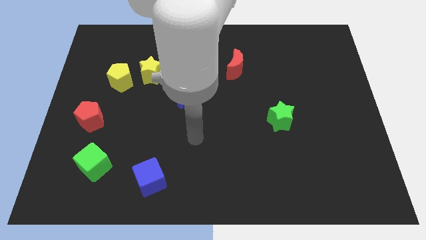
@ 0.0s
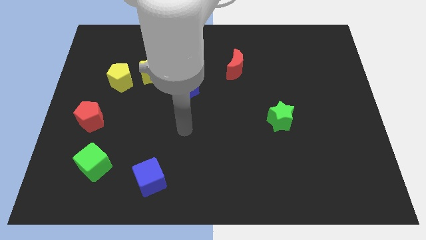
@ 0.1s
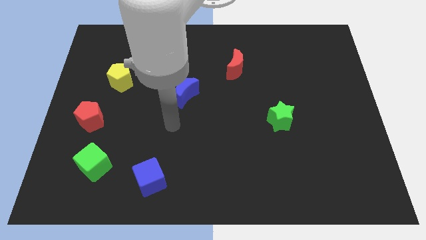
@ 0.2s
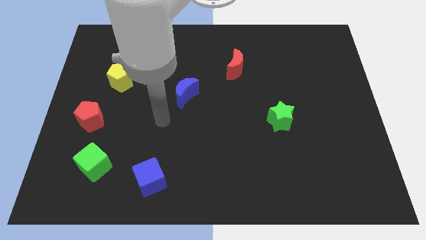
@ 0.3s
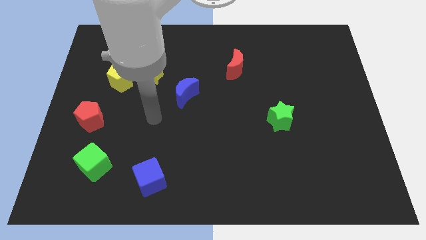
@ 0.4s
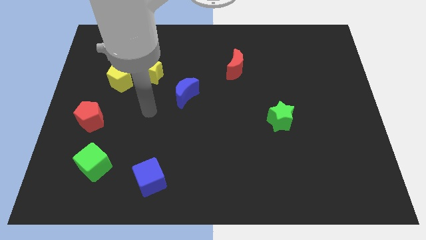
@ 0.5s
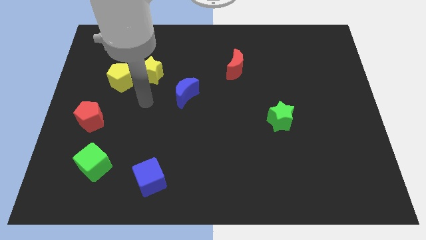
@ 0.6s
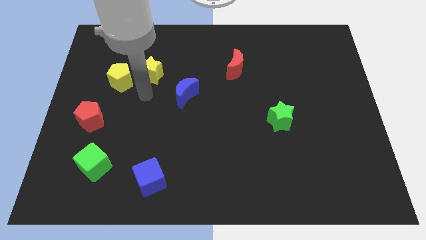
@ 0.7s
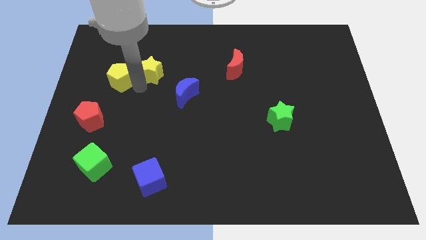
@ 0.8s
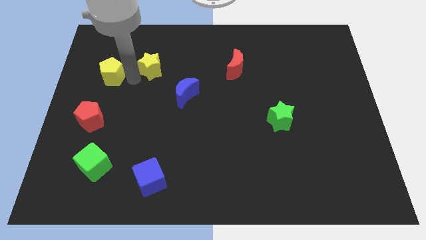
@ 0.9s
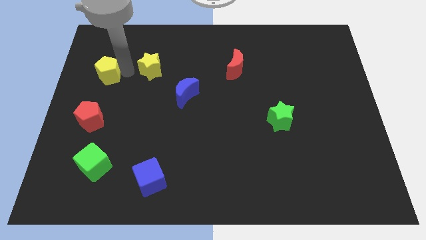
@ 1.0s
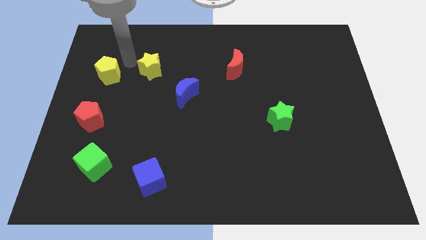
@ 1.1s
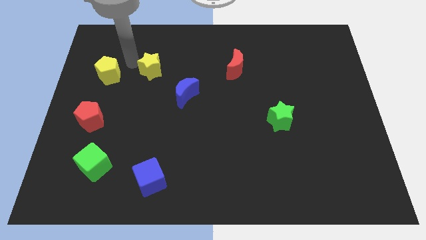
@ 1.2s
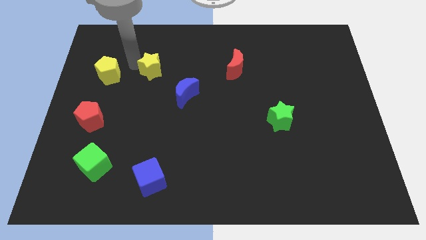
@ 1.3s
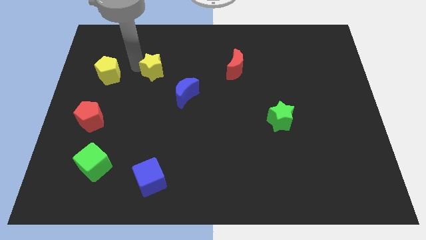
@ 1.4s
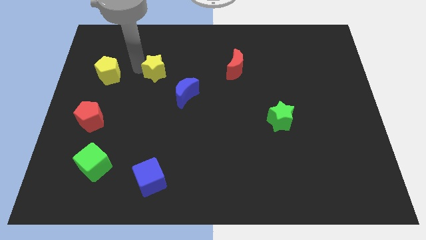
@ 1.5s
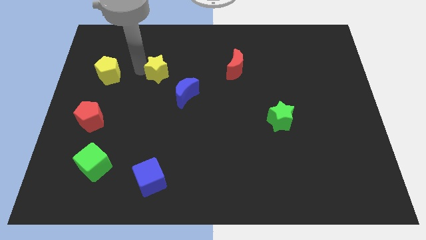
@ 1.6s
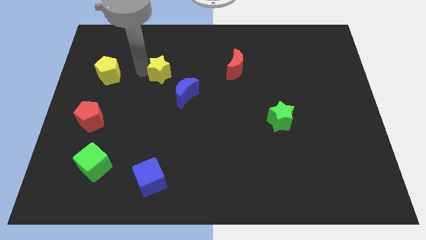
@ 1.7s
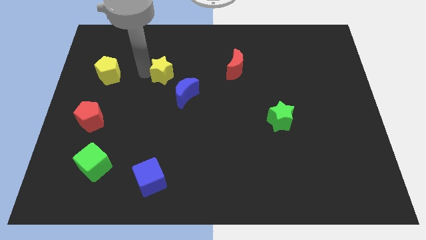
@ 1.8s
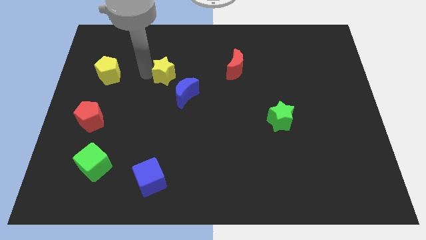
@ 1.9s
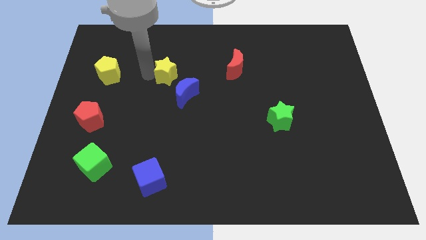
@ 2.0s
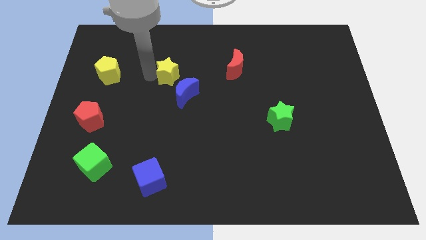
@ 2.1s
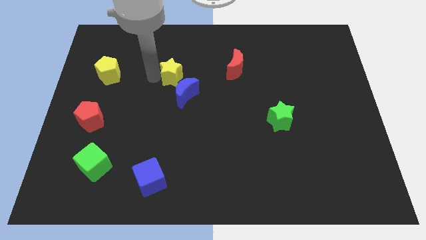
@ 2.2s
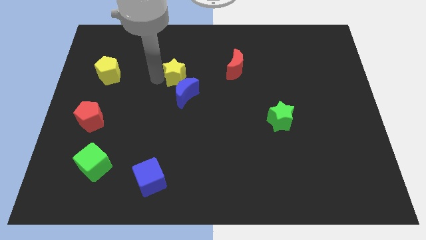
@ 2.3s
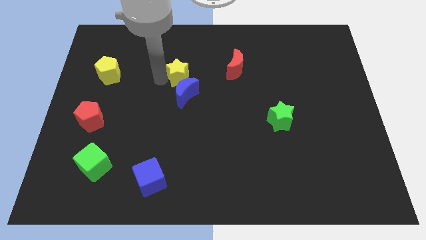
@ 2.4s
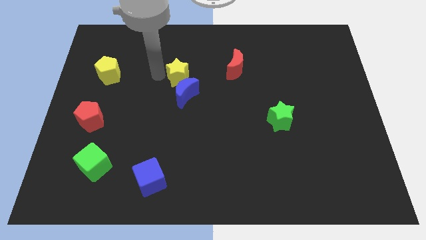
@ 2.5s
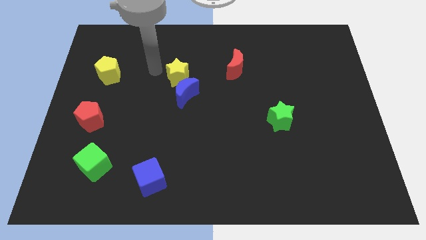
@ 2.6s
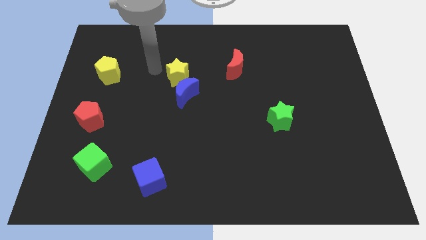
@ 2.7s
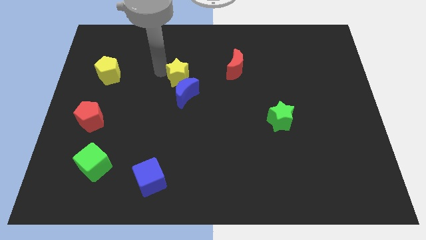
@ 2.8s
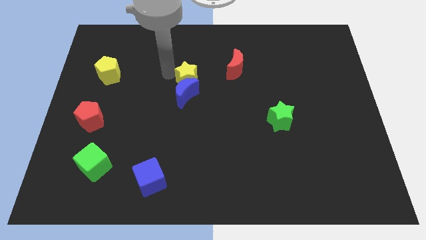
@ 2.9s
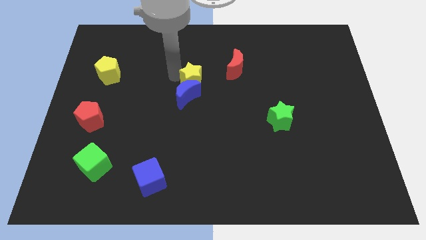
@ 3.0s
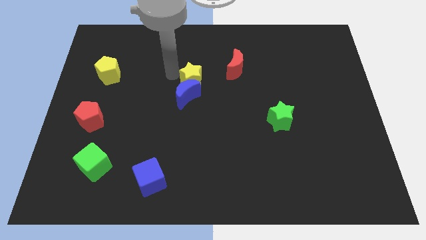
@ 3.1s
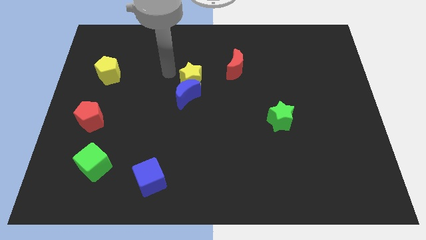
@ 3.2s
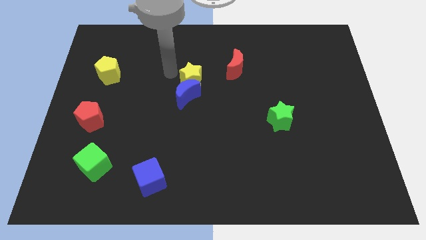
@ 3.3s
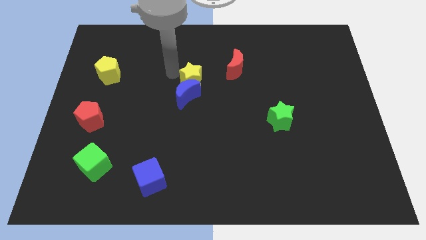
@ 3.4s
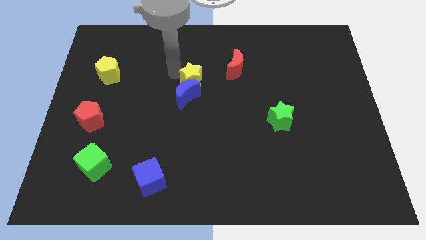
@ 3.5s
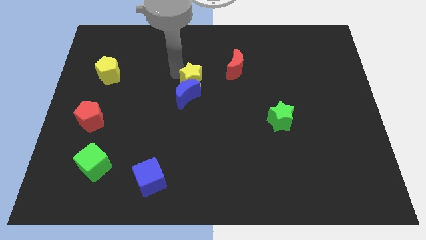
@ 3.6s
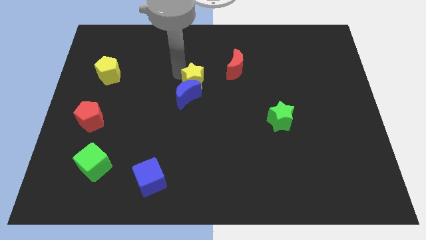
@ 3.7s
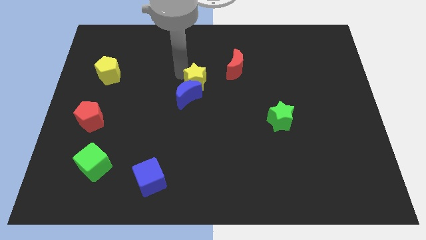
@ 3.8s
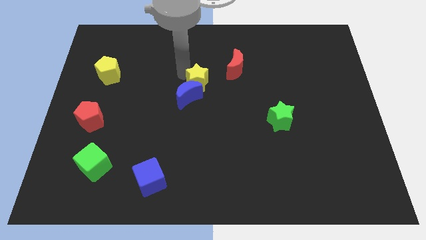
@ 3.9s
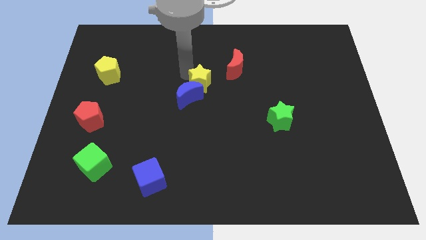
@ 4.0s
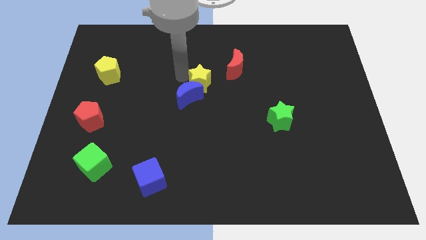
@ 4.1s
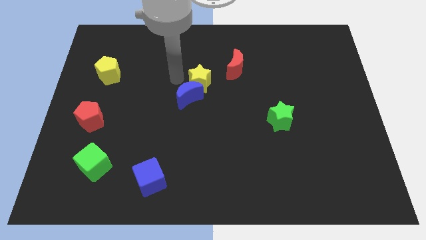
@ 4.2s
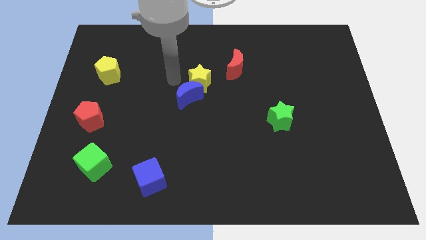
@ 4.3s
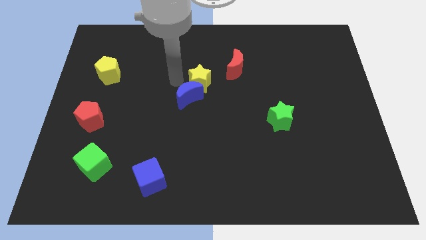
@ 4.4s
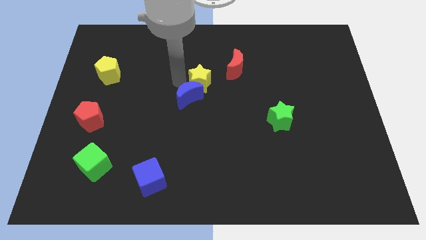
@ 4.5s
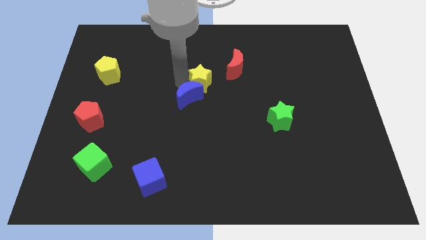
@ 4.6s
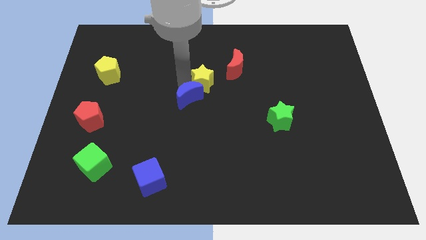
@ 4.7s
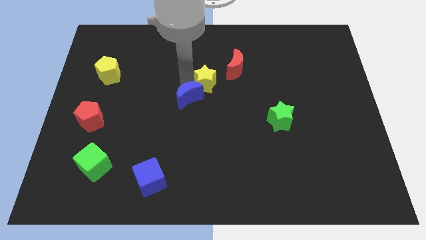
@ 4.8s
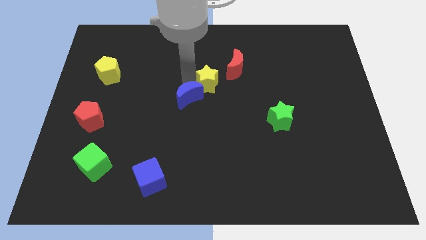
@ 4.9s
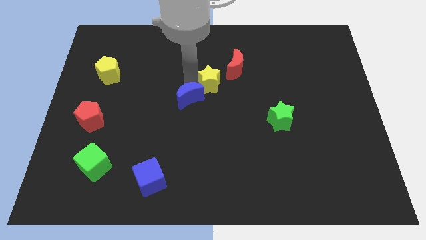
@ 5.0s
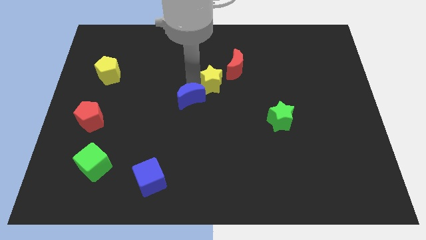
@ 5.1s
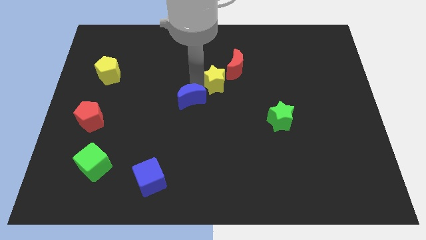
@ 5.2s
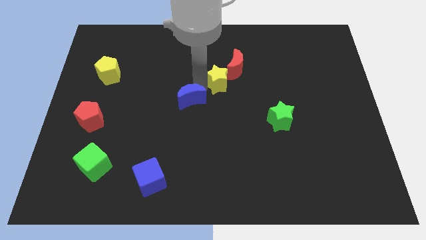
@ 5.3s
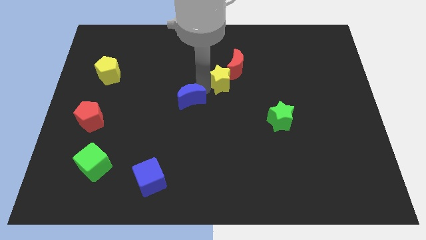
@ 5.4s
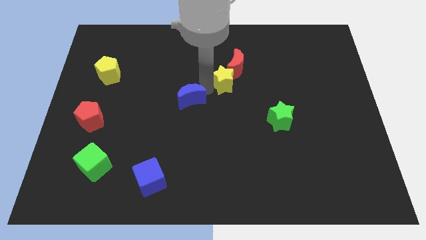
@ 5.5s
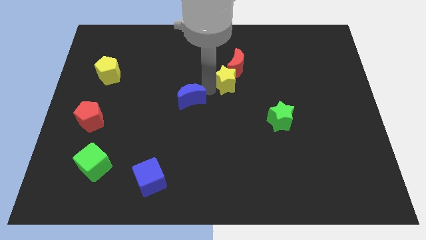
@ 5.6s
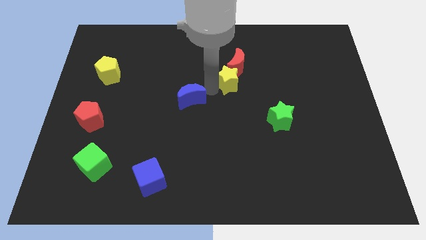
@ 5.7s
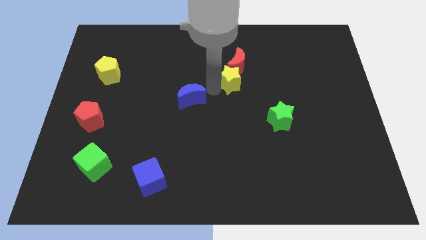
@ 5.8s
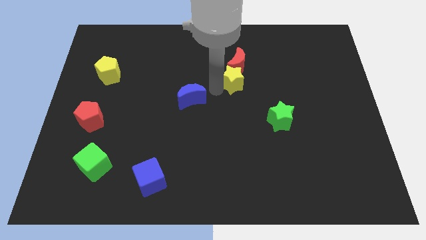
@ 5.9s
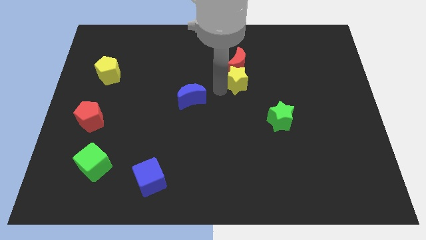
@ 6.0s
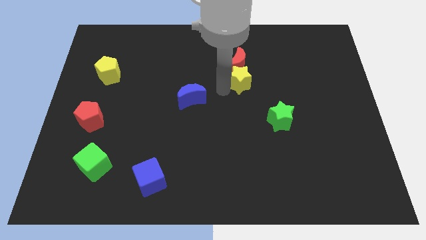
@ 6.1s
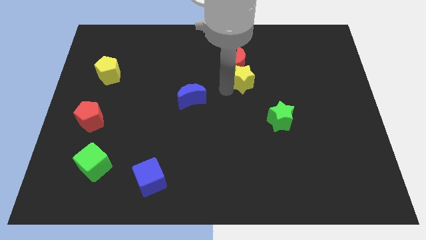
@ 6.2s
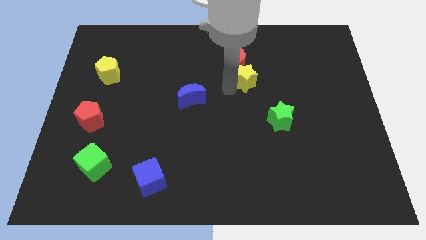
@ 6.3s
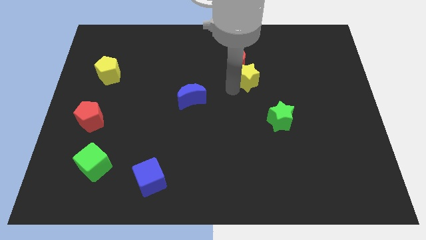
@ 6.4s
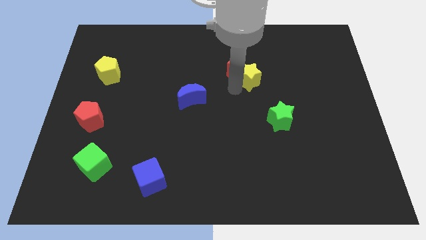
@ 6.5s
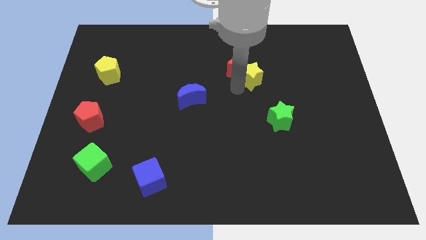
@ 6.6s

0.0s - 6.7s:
put the yellow star to the right side of the red moon

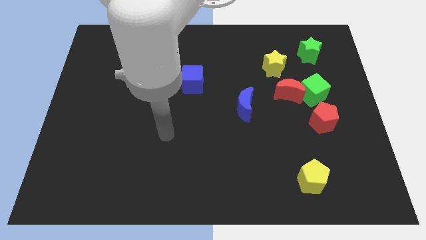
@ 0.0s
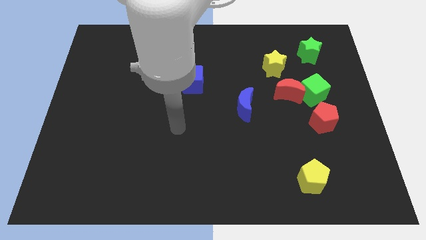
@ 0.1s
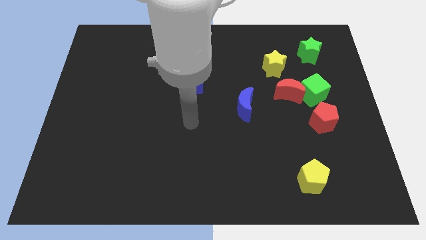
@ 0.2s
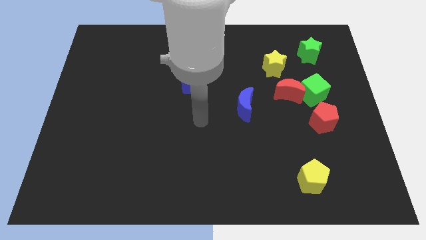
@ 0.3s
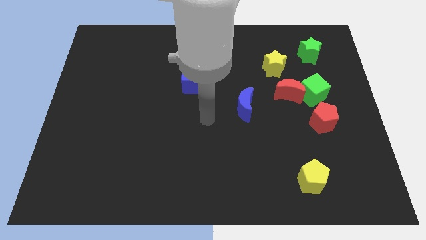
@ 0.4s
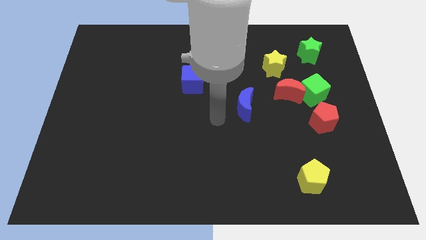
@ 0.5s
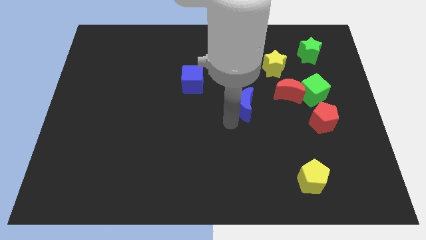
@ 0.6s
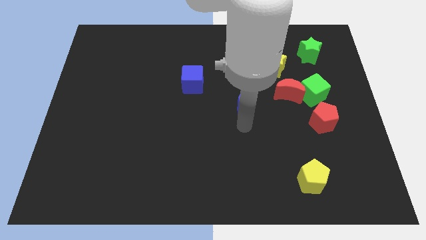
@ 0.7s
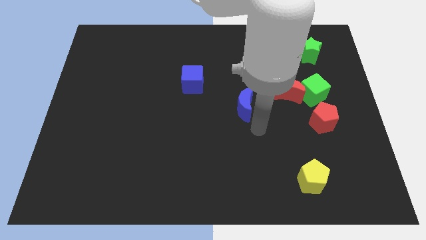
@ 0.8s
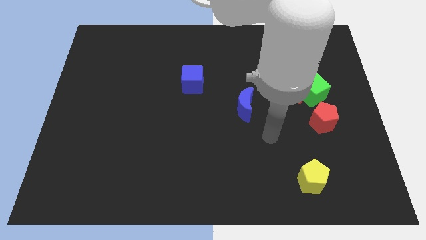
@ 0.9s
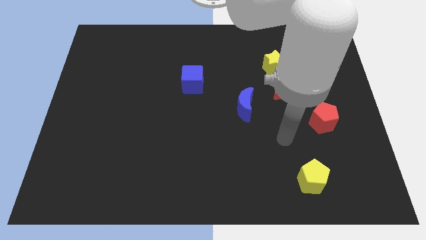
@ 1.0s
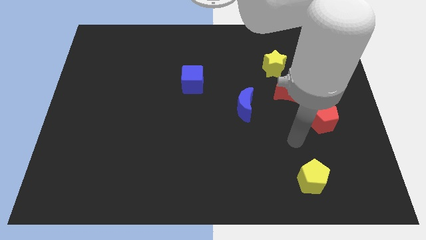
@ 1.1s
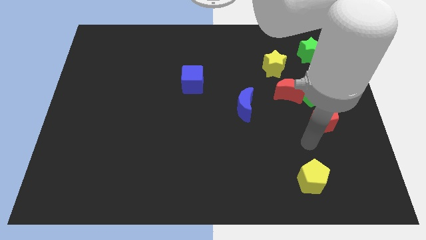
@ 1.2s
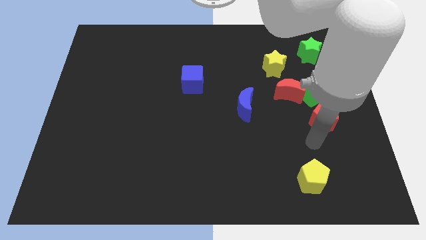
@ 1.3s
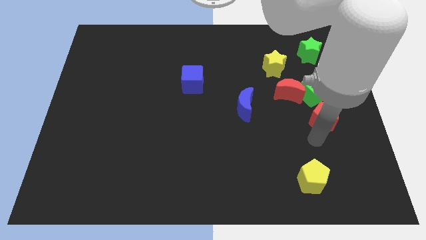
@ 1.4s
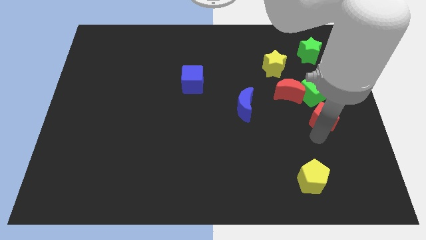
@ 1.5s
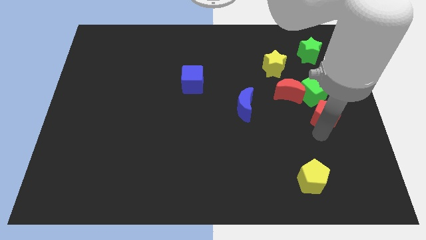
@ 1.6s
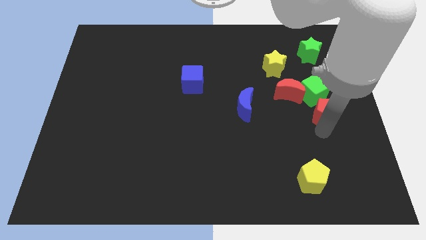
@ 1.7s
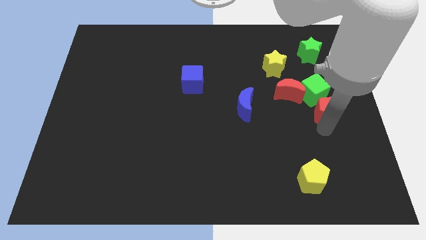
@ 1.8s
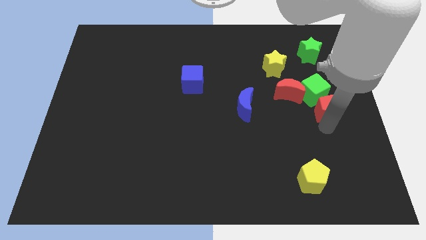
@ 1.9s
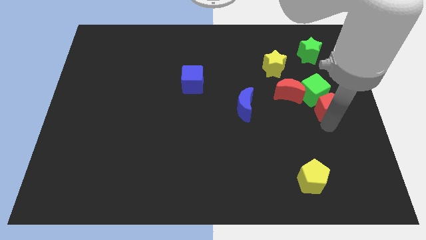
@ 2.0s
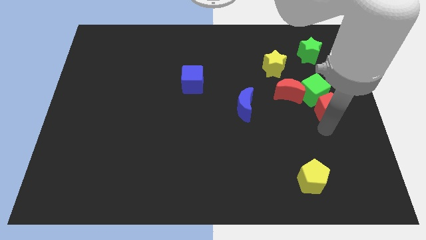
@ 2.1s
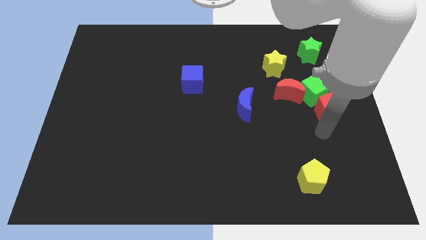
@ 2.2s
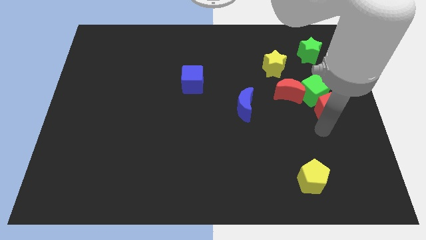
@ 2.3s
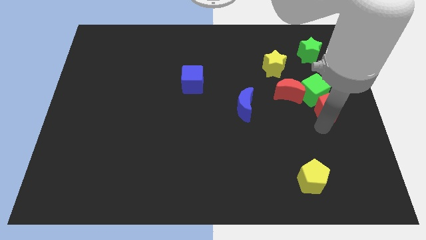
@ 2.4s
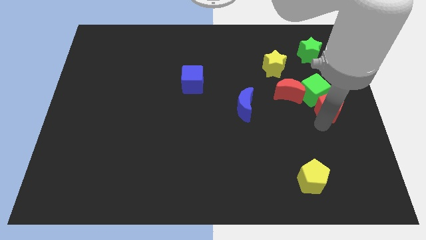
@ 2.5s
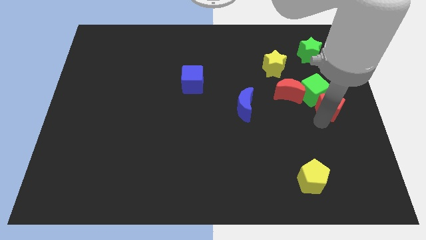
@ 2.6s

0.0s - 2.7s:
slide the red pentagon to the right side of the red moon
